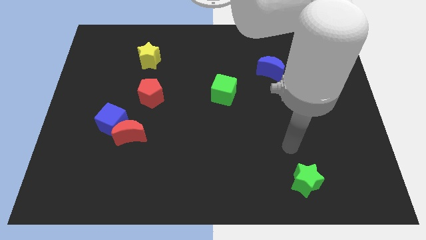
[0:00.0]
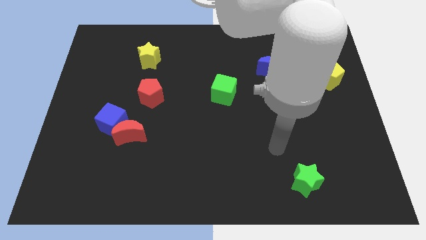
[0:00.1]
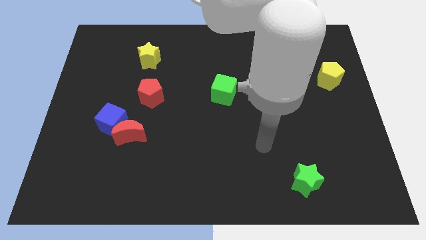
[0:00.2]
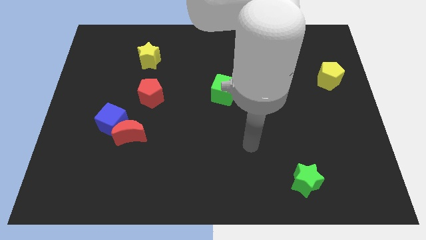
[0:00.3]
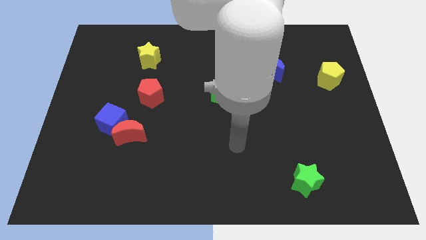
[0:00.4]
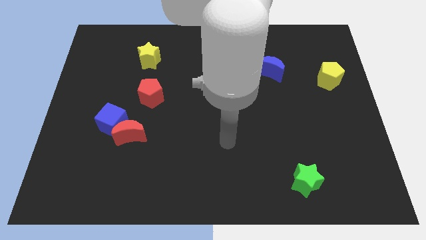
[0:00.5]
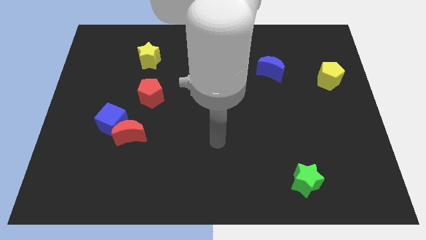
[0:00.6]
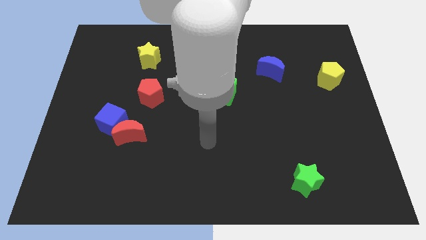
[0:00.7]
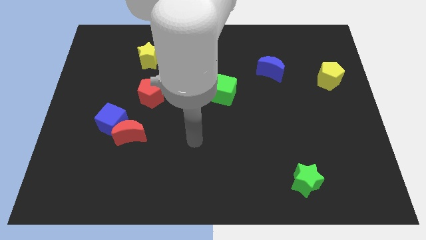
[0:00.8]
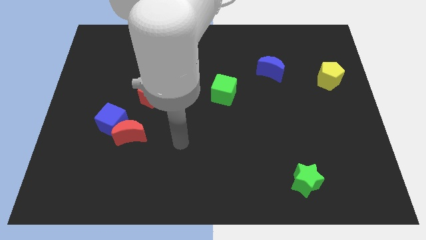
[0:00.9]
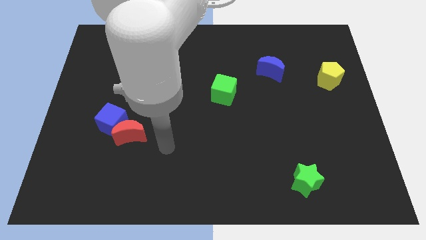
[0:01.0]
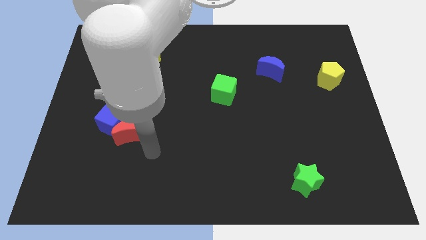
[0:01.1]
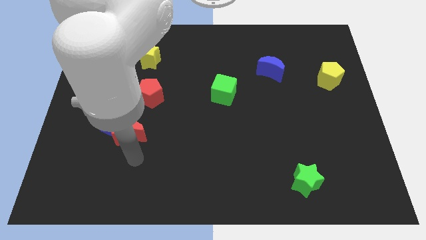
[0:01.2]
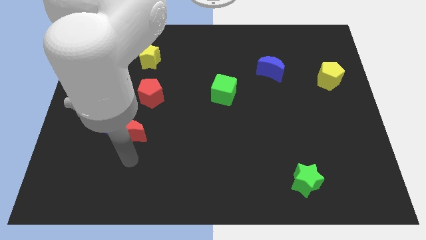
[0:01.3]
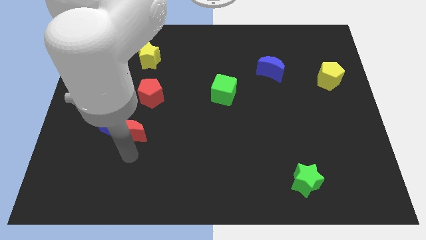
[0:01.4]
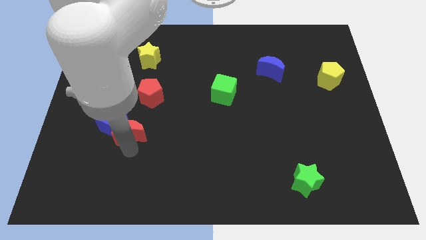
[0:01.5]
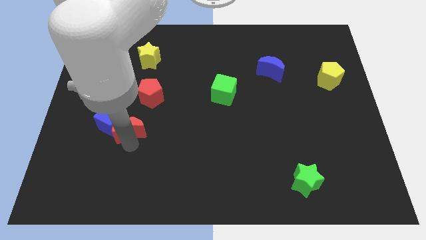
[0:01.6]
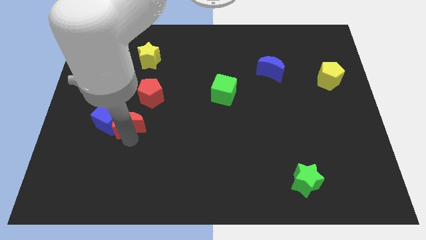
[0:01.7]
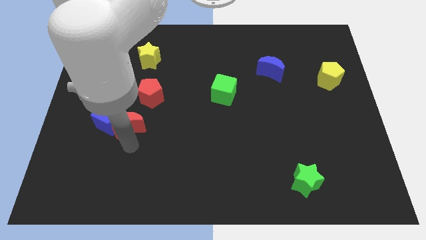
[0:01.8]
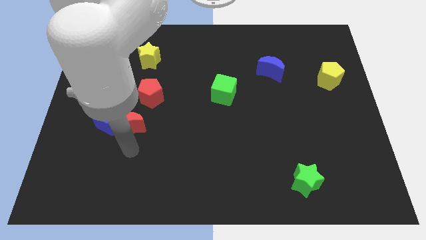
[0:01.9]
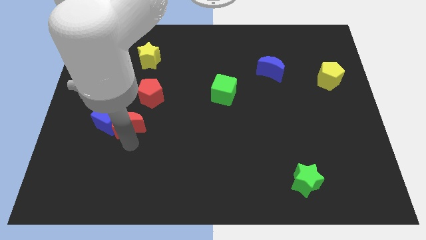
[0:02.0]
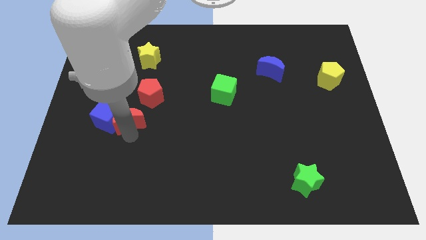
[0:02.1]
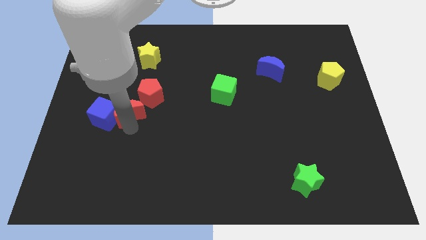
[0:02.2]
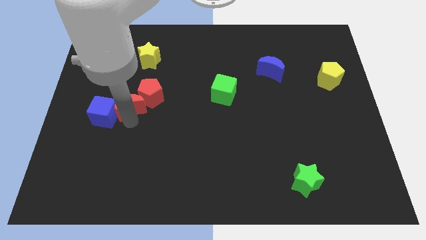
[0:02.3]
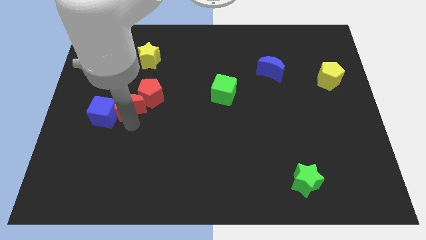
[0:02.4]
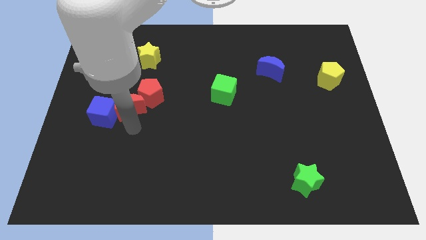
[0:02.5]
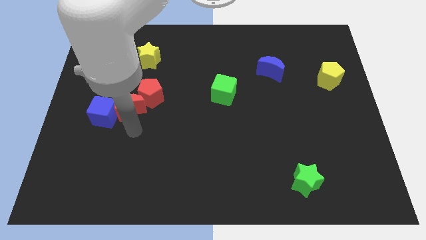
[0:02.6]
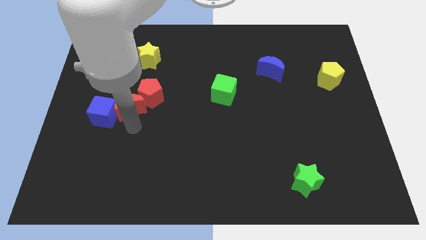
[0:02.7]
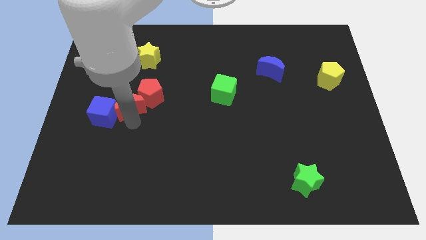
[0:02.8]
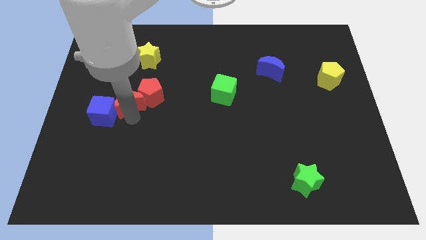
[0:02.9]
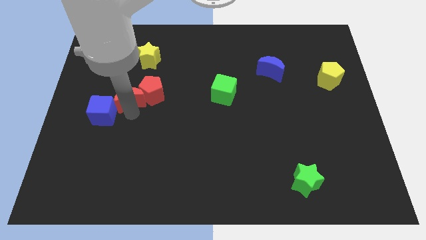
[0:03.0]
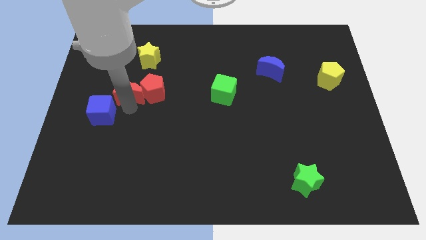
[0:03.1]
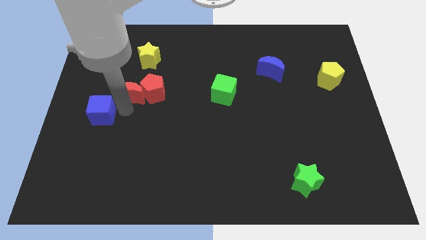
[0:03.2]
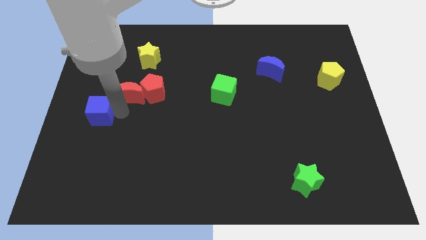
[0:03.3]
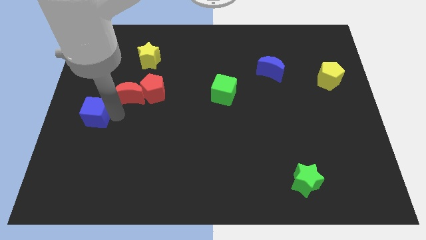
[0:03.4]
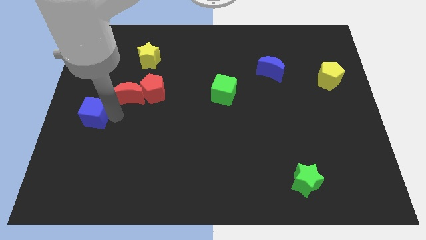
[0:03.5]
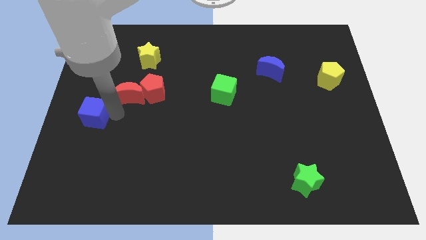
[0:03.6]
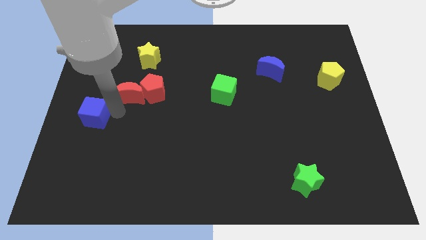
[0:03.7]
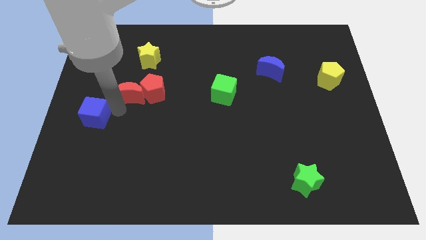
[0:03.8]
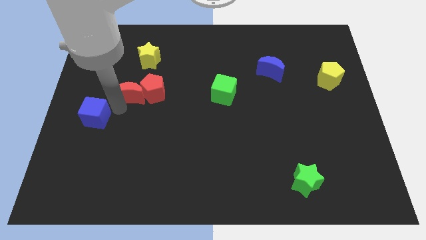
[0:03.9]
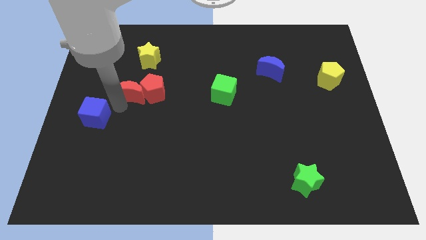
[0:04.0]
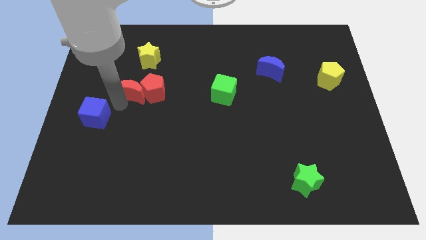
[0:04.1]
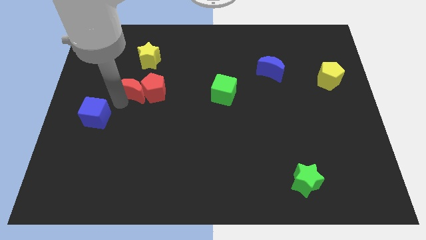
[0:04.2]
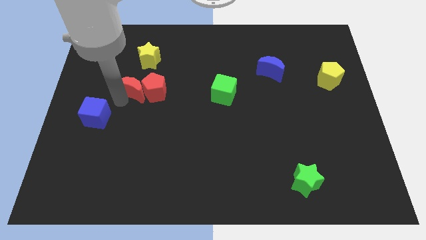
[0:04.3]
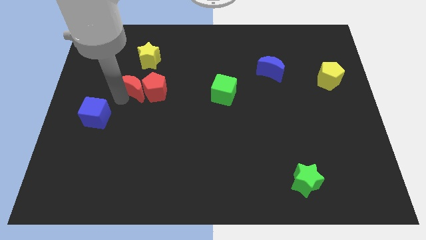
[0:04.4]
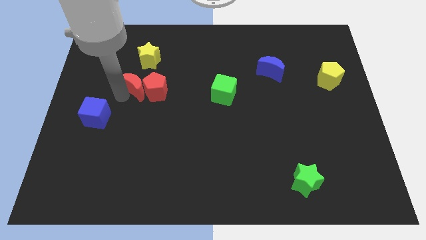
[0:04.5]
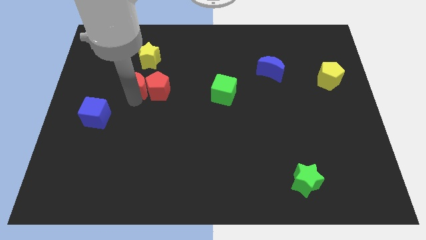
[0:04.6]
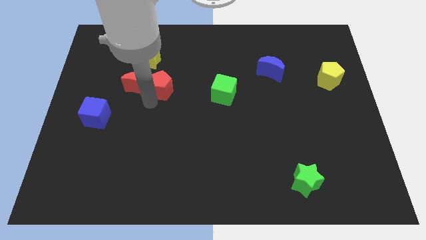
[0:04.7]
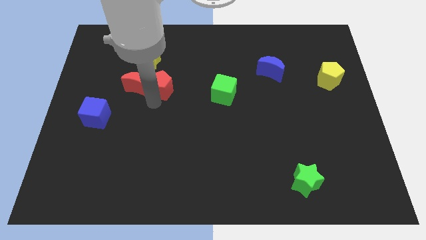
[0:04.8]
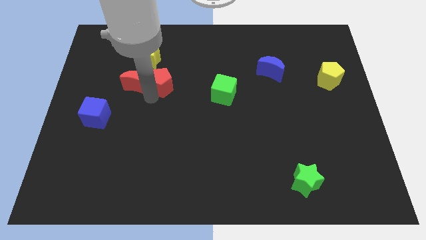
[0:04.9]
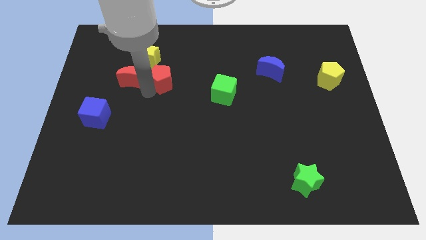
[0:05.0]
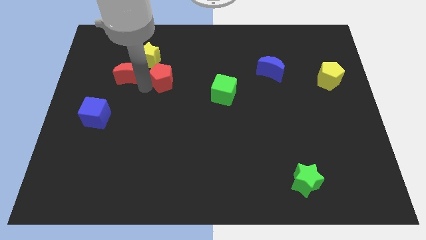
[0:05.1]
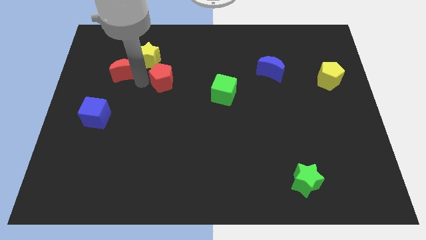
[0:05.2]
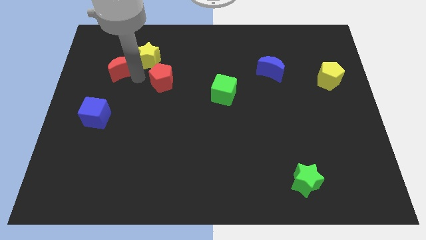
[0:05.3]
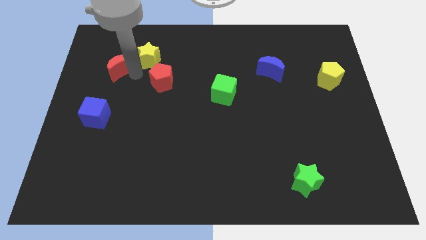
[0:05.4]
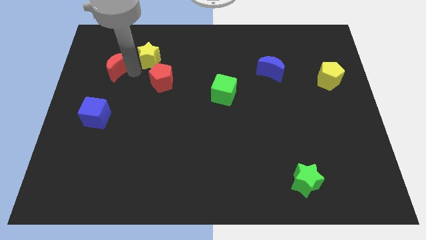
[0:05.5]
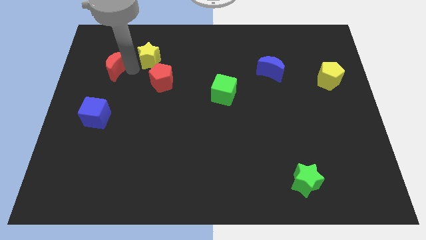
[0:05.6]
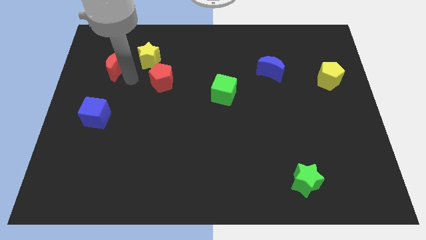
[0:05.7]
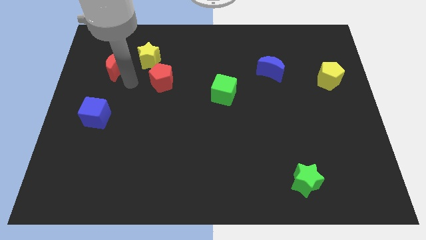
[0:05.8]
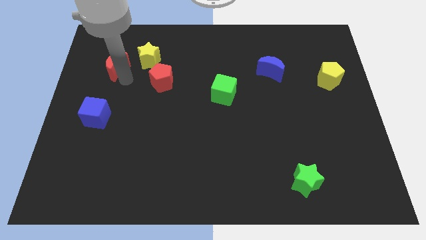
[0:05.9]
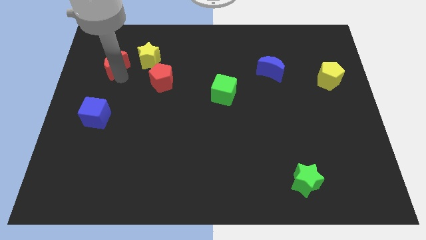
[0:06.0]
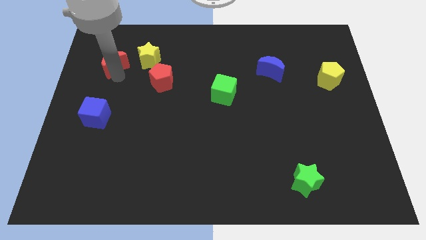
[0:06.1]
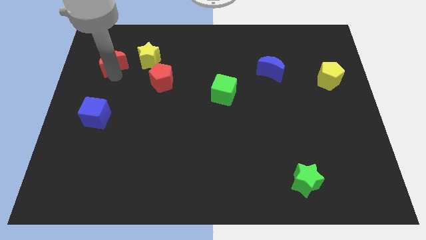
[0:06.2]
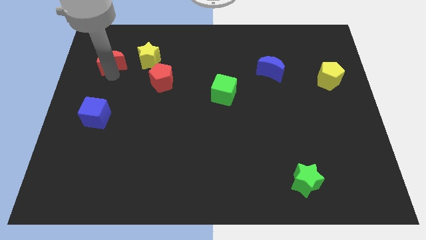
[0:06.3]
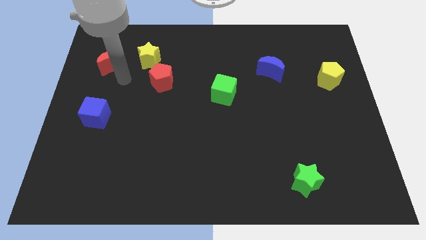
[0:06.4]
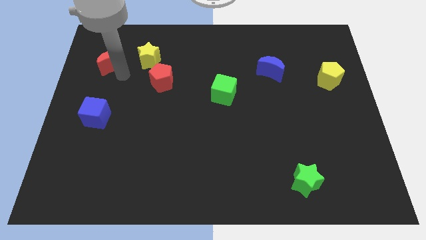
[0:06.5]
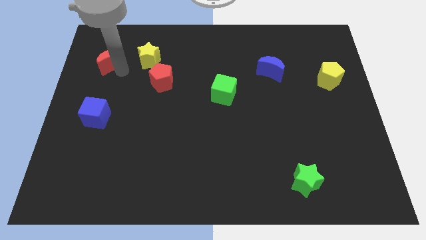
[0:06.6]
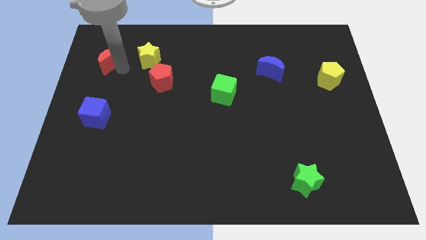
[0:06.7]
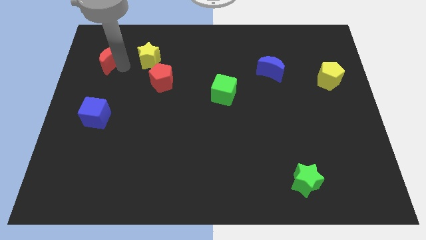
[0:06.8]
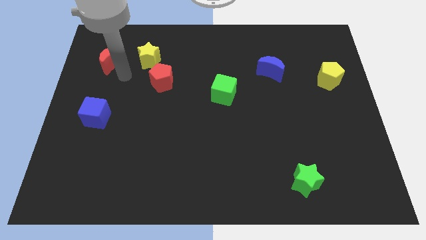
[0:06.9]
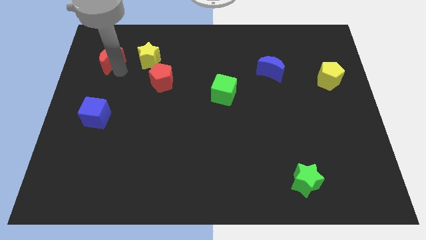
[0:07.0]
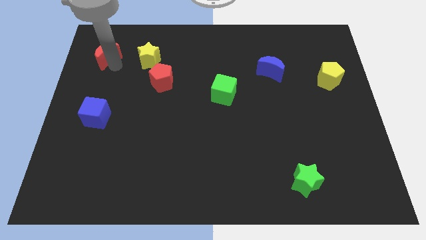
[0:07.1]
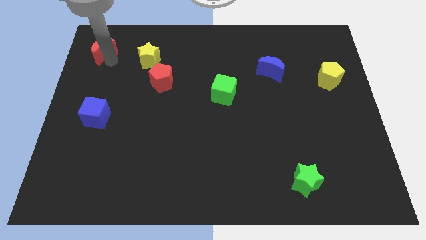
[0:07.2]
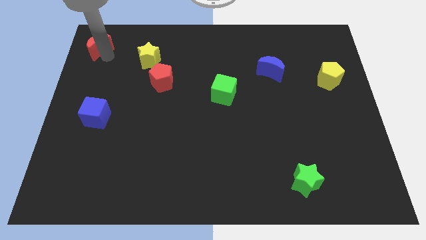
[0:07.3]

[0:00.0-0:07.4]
push the red moon to the top left of the board
